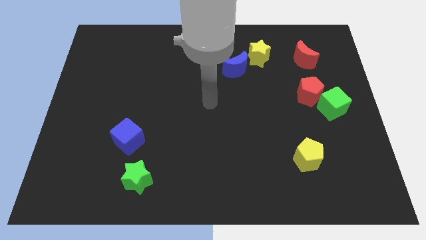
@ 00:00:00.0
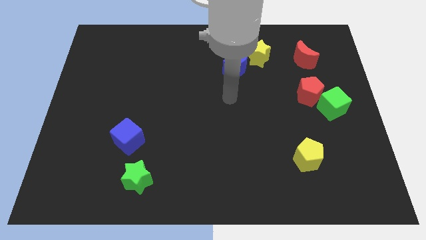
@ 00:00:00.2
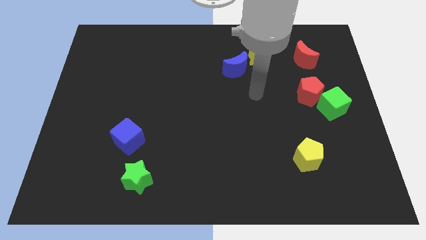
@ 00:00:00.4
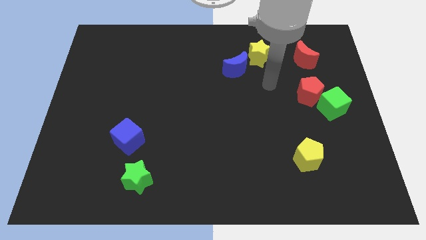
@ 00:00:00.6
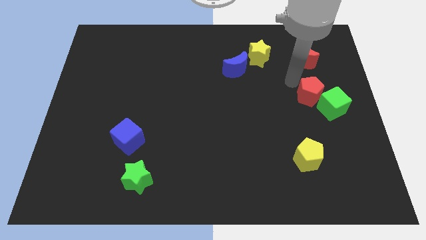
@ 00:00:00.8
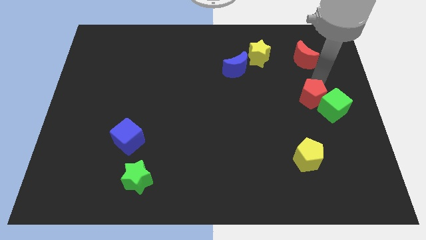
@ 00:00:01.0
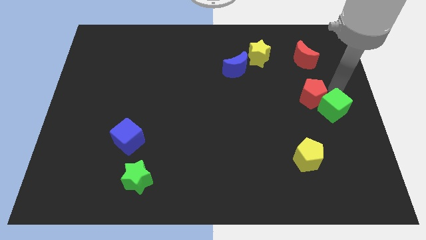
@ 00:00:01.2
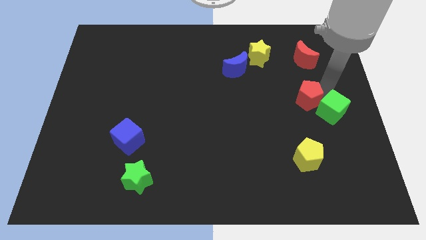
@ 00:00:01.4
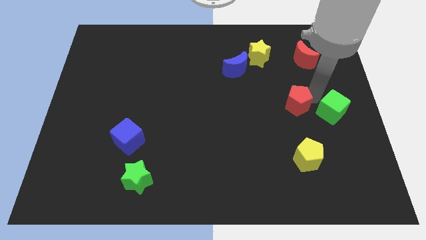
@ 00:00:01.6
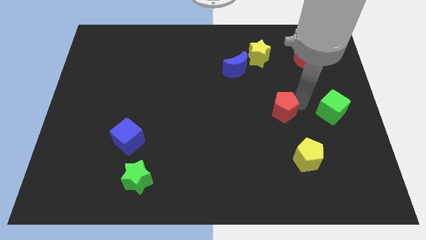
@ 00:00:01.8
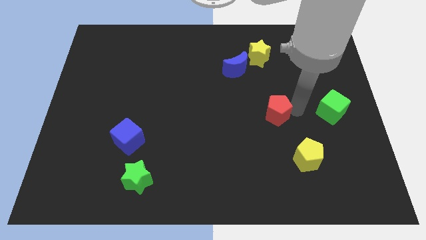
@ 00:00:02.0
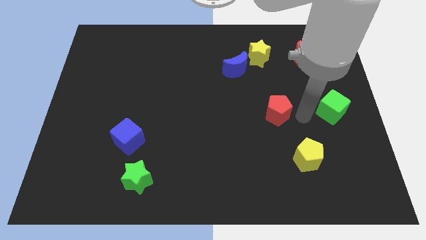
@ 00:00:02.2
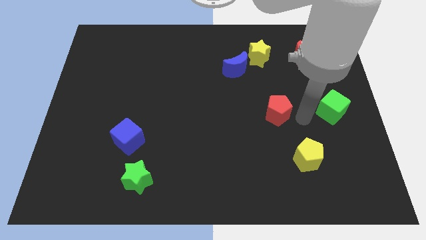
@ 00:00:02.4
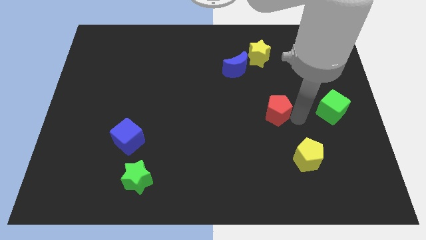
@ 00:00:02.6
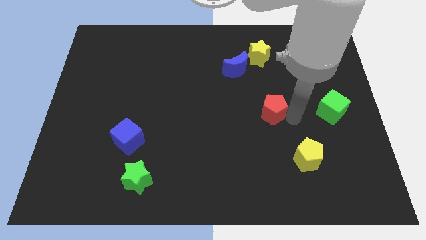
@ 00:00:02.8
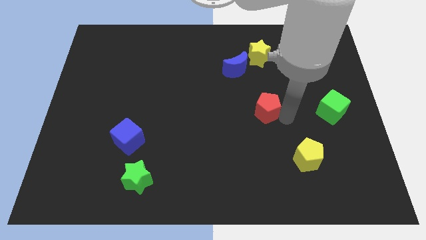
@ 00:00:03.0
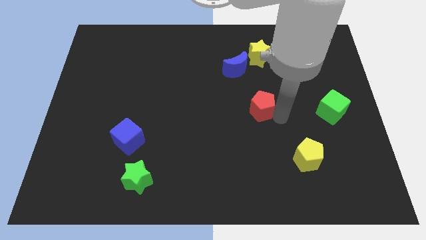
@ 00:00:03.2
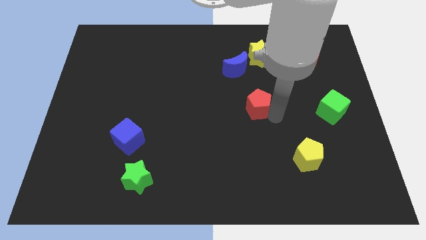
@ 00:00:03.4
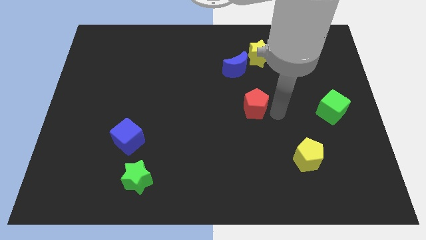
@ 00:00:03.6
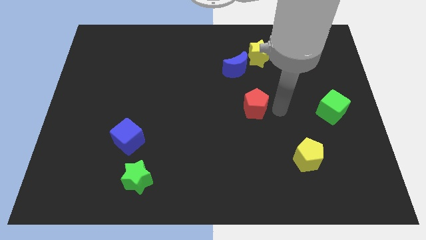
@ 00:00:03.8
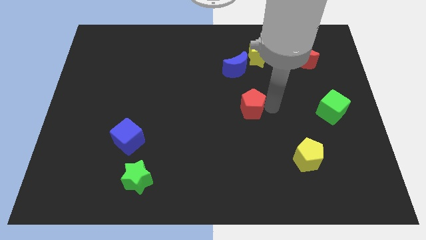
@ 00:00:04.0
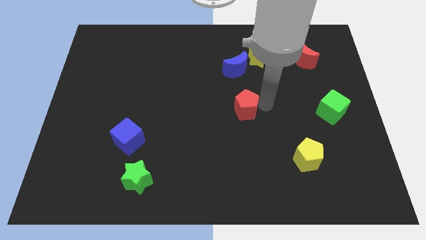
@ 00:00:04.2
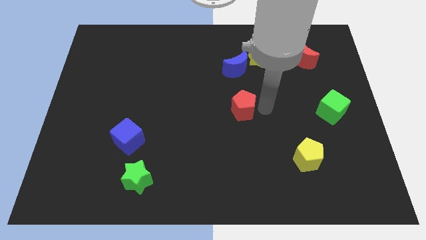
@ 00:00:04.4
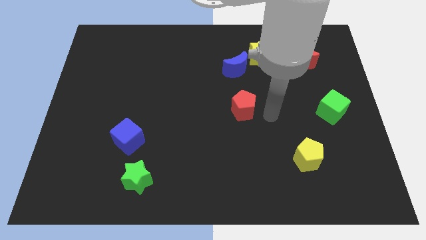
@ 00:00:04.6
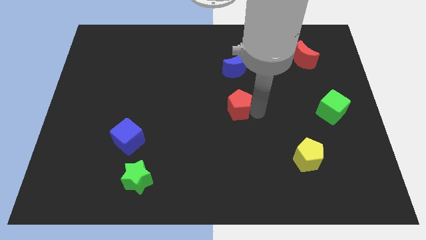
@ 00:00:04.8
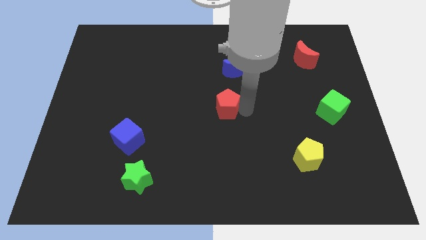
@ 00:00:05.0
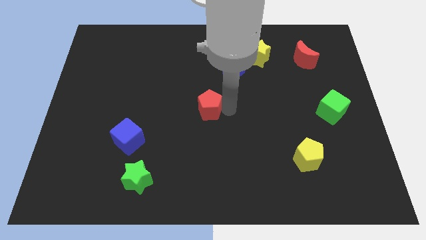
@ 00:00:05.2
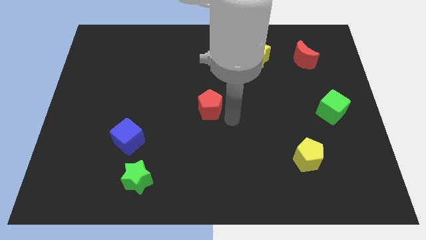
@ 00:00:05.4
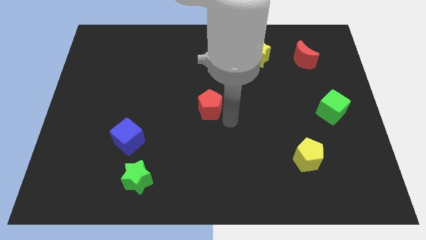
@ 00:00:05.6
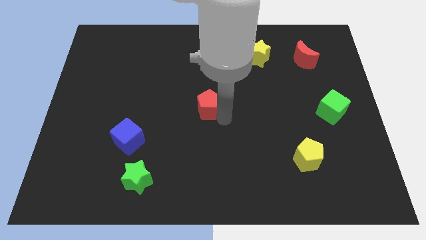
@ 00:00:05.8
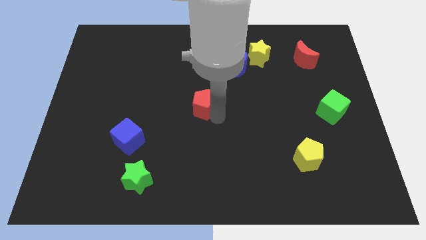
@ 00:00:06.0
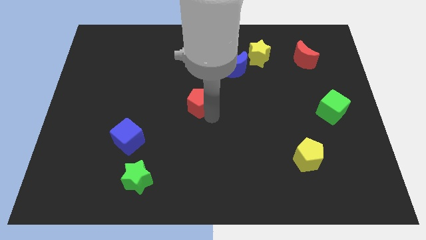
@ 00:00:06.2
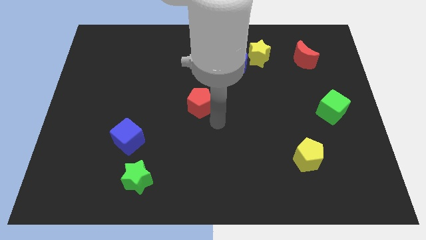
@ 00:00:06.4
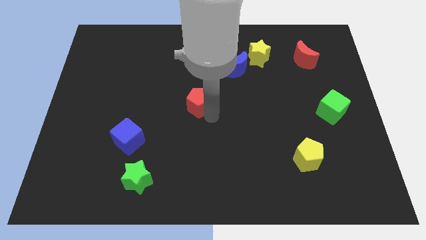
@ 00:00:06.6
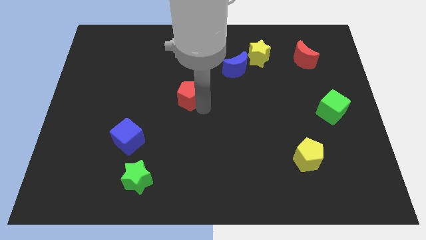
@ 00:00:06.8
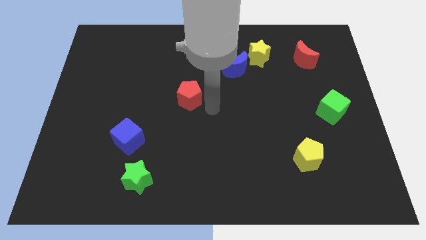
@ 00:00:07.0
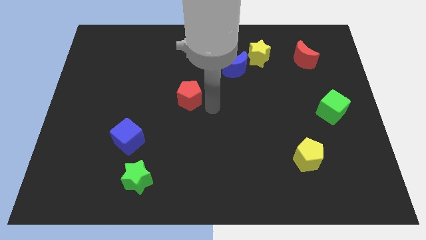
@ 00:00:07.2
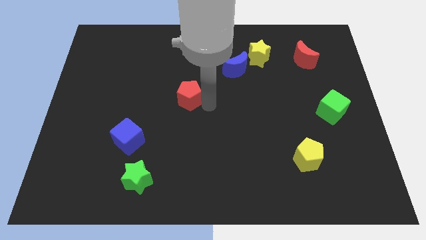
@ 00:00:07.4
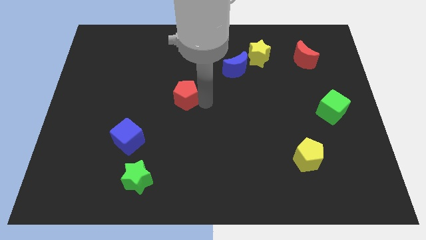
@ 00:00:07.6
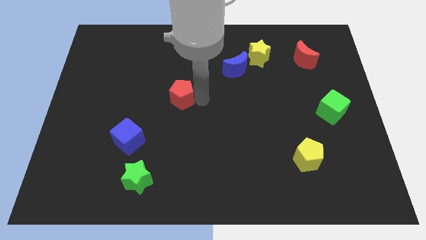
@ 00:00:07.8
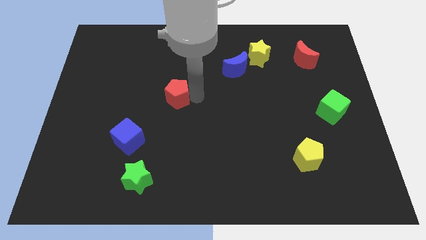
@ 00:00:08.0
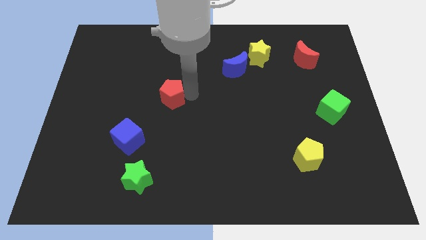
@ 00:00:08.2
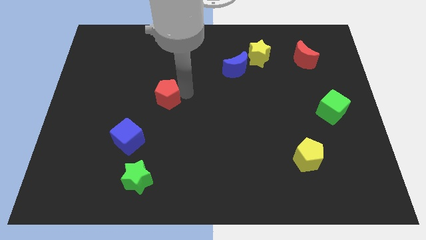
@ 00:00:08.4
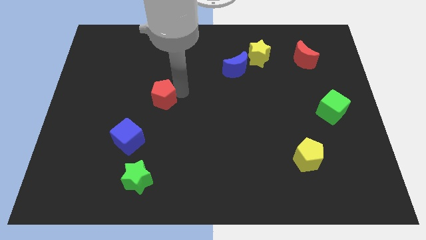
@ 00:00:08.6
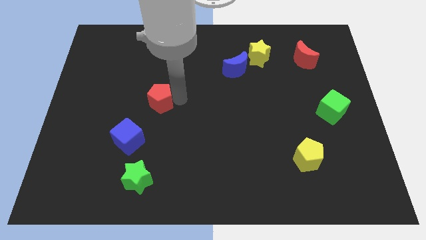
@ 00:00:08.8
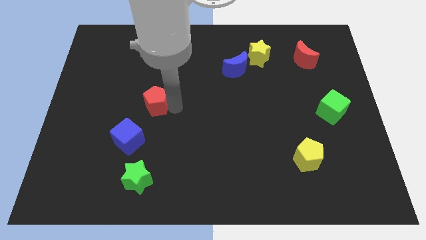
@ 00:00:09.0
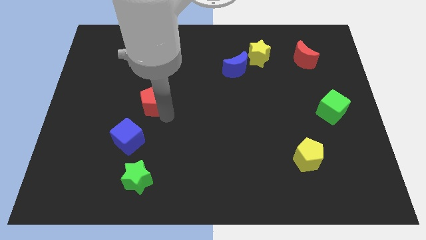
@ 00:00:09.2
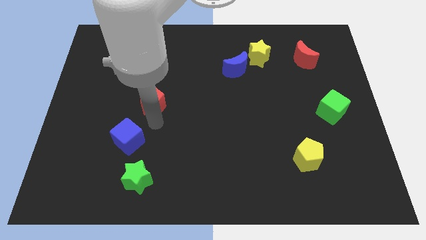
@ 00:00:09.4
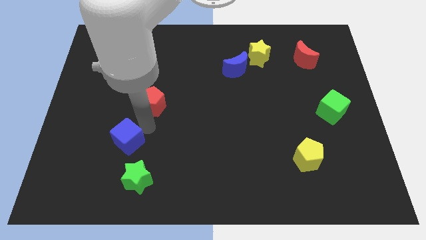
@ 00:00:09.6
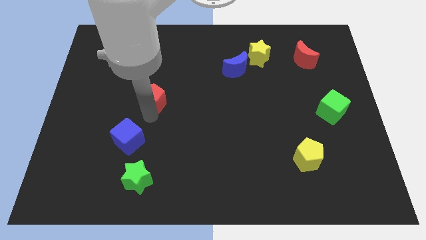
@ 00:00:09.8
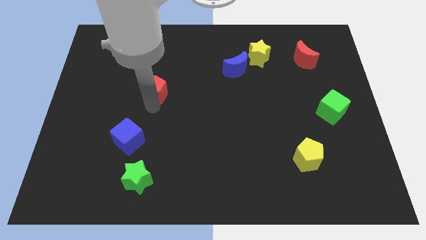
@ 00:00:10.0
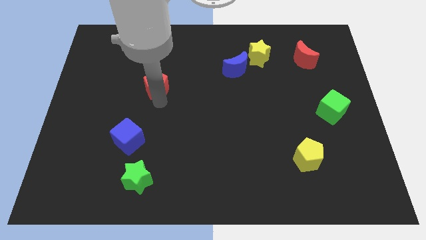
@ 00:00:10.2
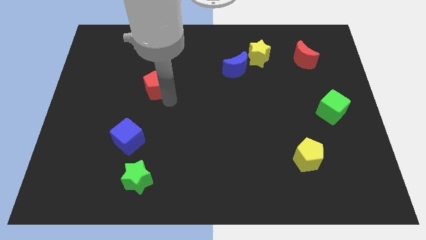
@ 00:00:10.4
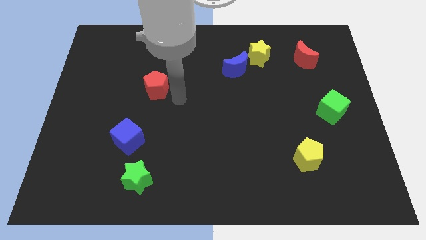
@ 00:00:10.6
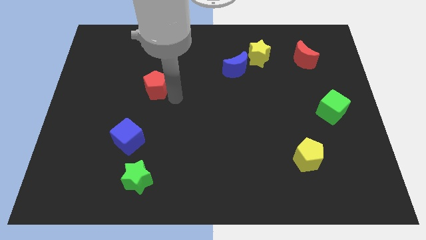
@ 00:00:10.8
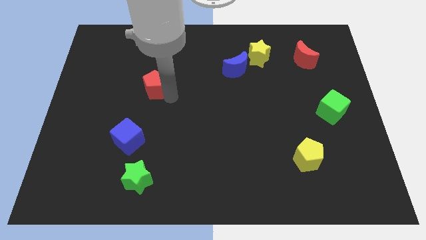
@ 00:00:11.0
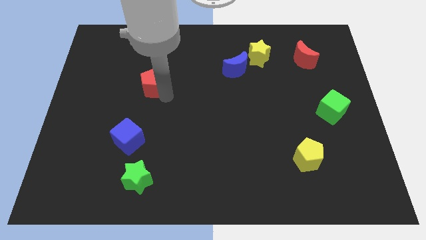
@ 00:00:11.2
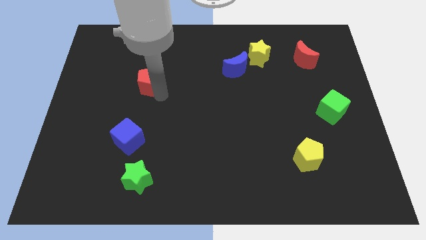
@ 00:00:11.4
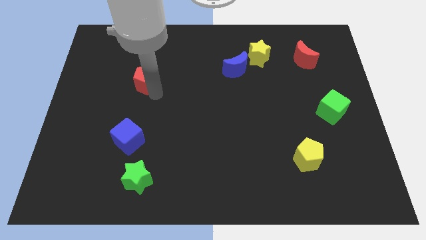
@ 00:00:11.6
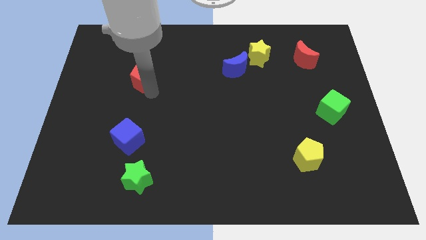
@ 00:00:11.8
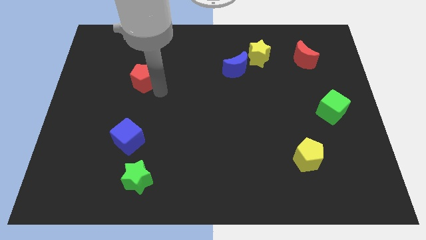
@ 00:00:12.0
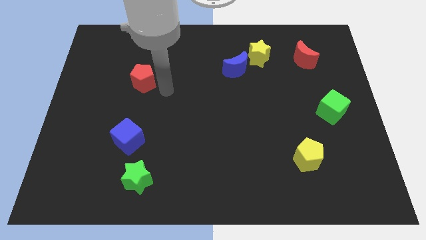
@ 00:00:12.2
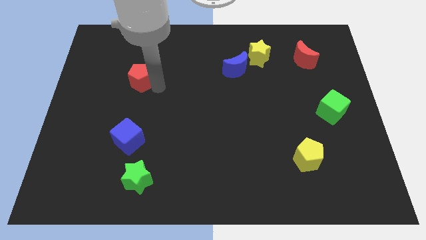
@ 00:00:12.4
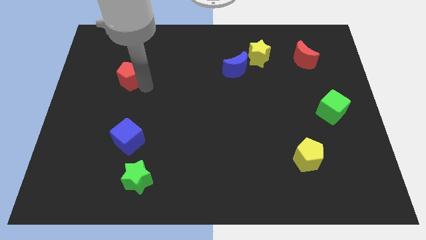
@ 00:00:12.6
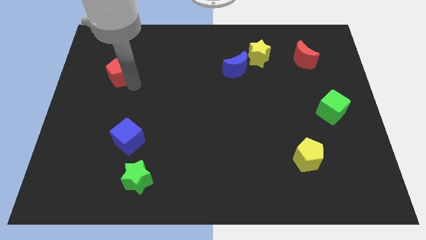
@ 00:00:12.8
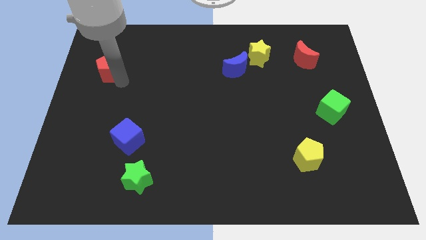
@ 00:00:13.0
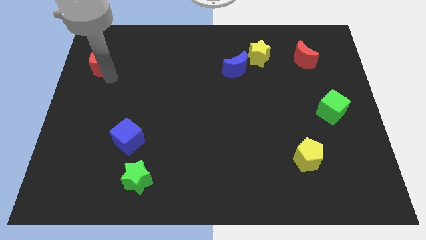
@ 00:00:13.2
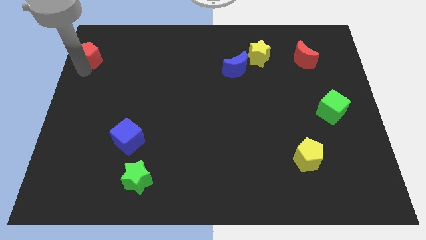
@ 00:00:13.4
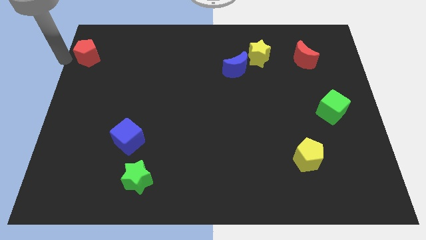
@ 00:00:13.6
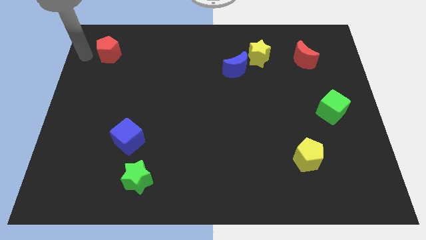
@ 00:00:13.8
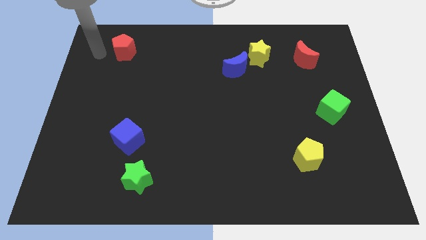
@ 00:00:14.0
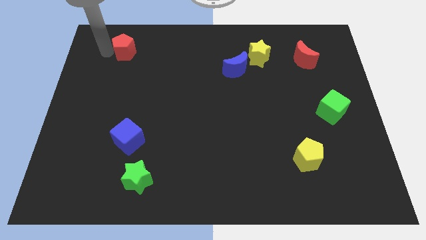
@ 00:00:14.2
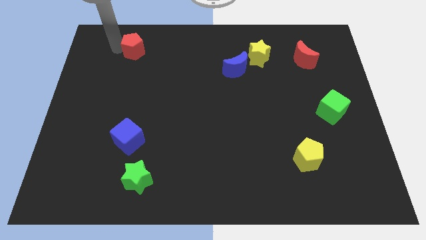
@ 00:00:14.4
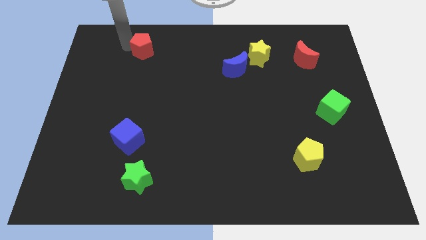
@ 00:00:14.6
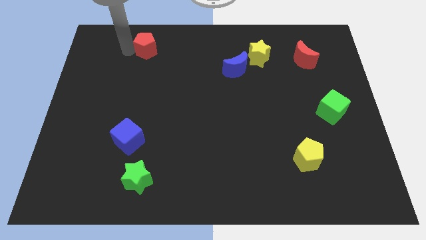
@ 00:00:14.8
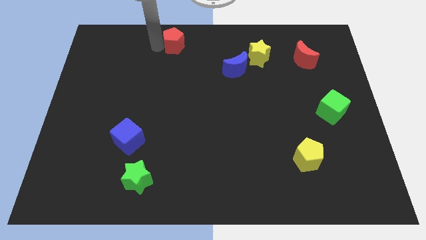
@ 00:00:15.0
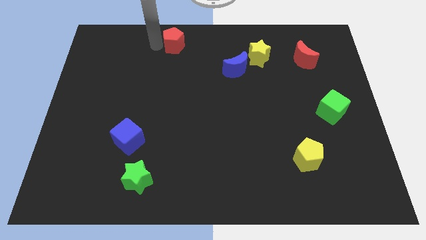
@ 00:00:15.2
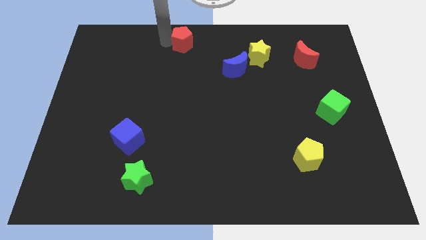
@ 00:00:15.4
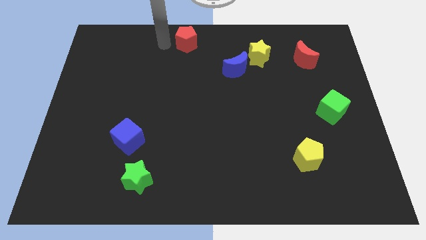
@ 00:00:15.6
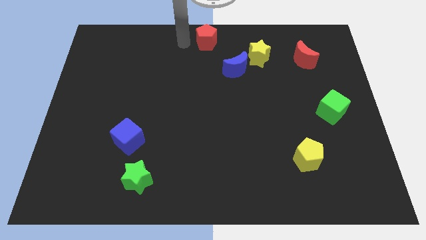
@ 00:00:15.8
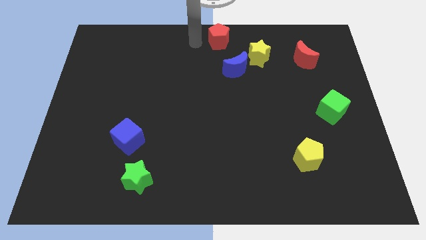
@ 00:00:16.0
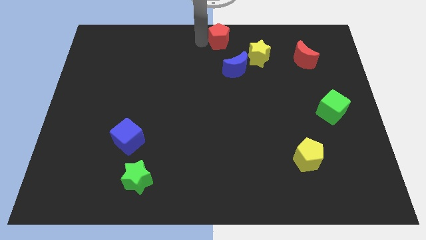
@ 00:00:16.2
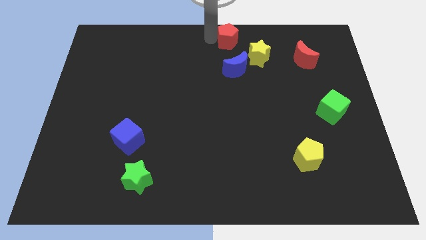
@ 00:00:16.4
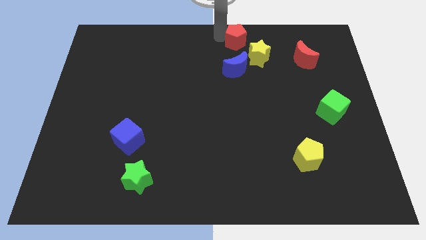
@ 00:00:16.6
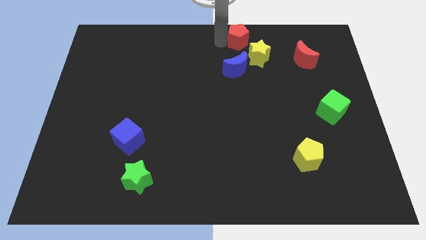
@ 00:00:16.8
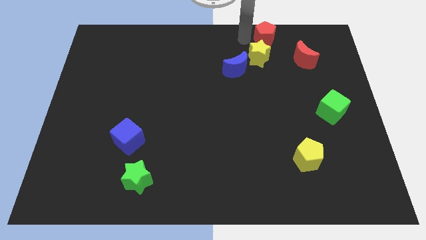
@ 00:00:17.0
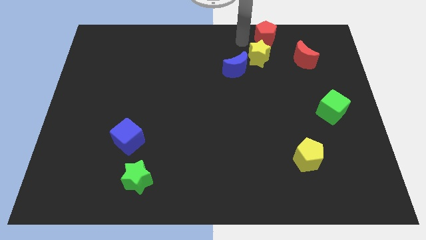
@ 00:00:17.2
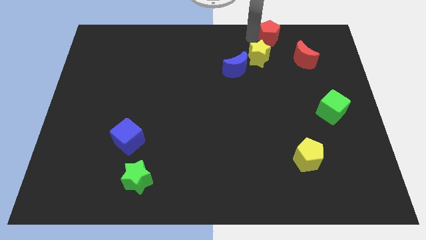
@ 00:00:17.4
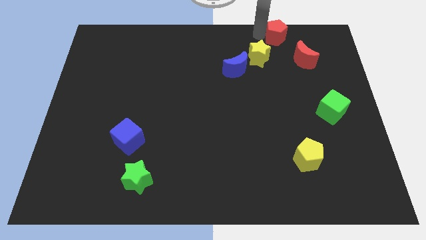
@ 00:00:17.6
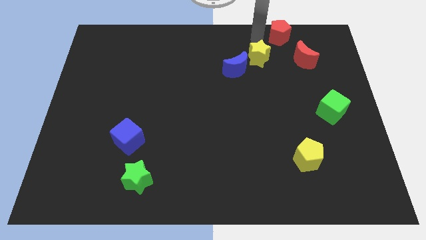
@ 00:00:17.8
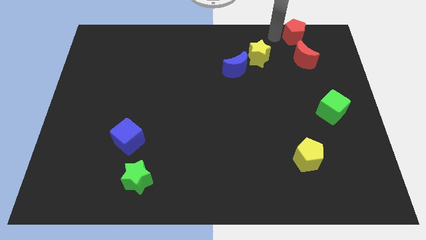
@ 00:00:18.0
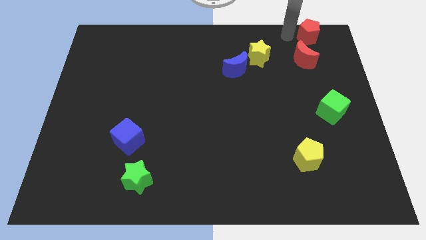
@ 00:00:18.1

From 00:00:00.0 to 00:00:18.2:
move the red pentagon to the top right corner
